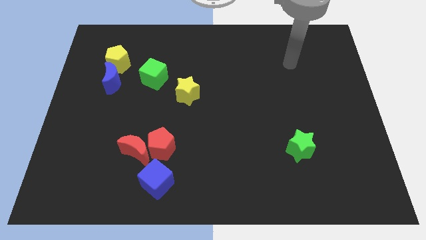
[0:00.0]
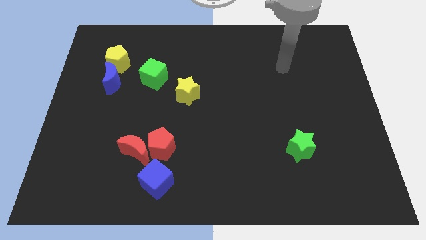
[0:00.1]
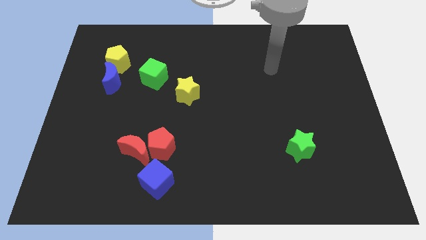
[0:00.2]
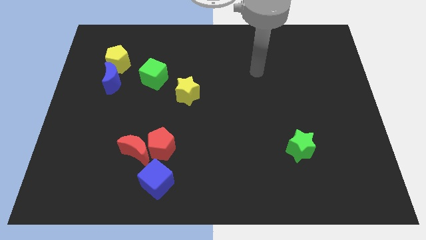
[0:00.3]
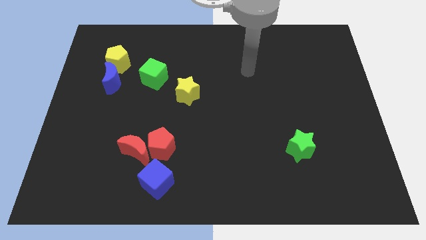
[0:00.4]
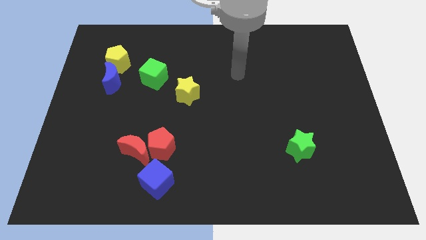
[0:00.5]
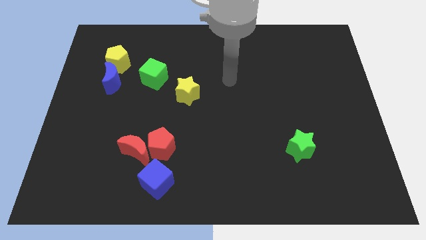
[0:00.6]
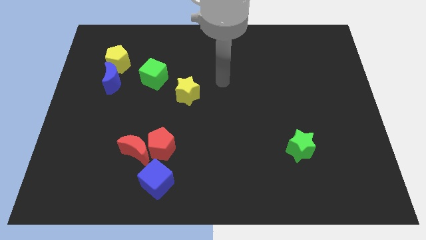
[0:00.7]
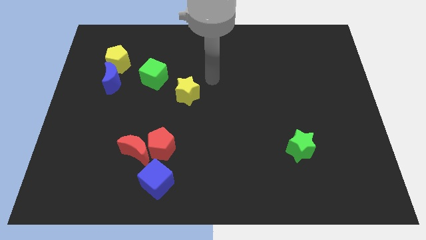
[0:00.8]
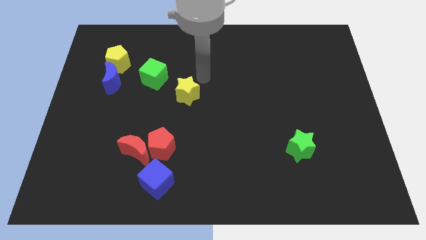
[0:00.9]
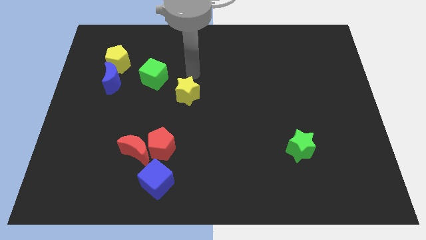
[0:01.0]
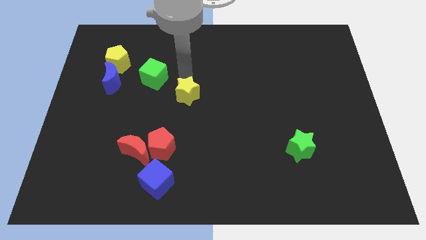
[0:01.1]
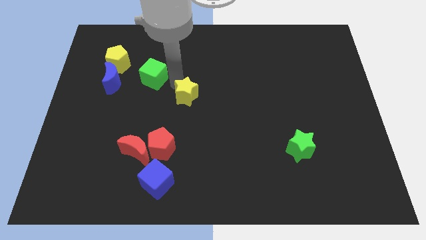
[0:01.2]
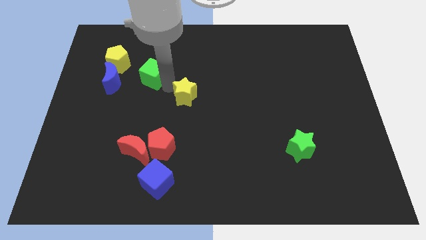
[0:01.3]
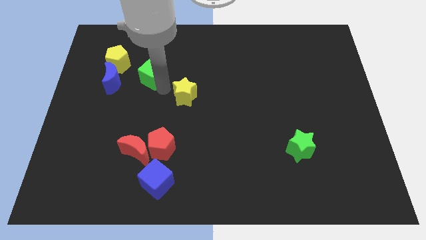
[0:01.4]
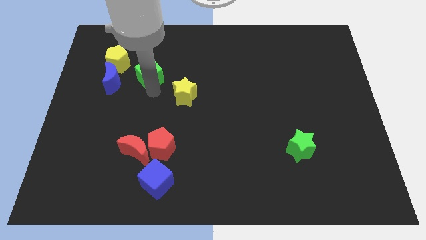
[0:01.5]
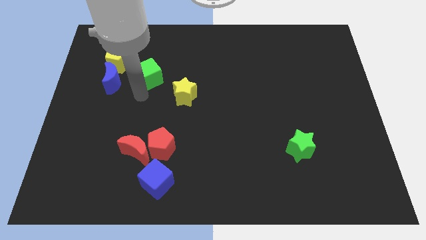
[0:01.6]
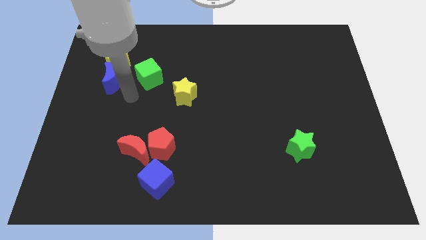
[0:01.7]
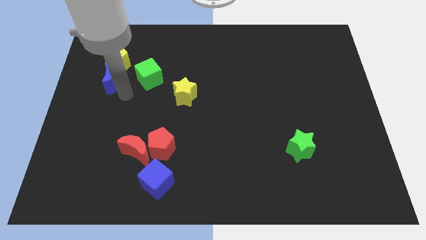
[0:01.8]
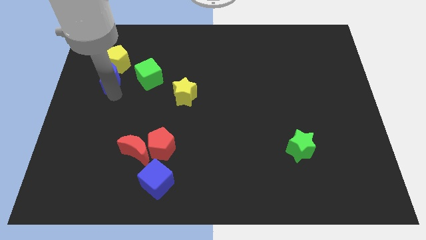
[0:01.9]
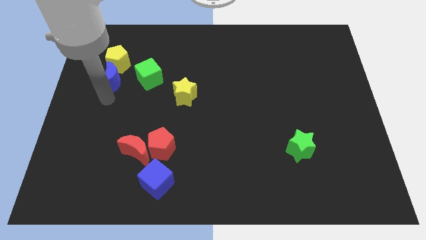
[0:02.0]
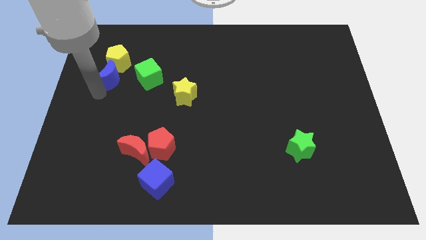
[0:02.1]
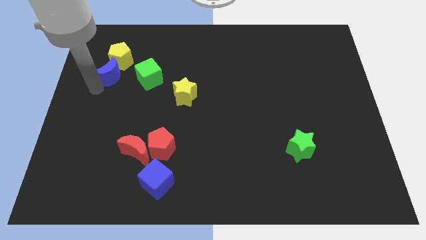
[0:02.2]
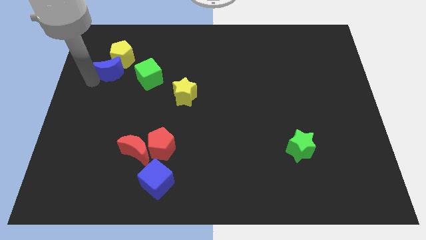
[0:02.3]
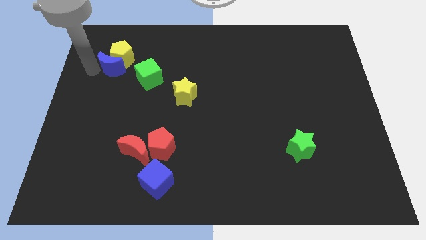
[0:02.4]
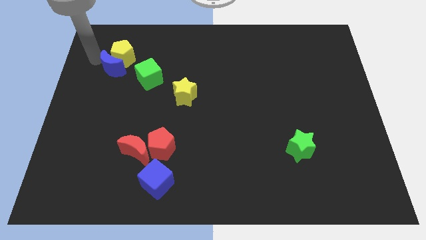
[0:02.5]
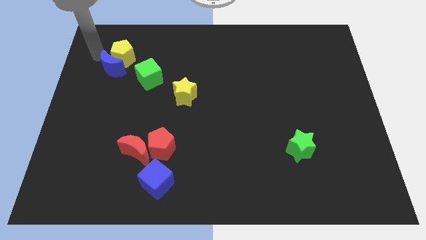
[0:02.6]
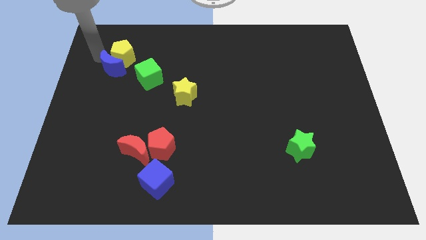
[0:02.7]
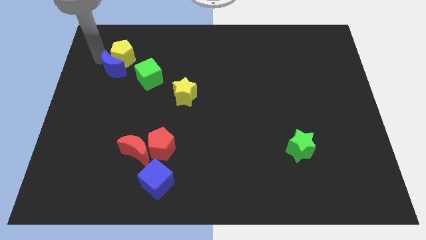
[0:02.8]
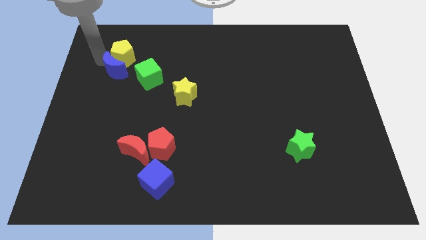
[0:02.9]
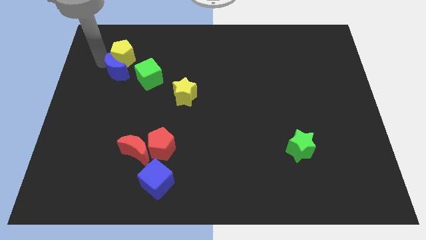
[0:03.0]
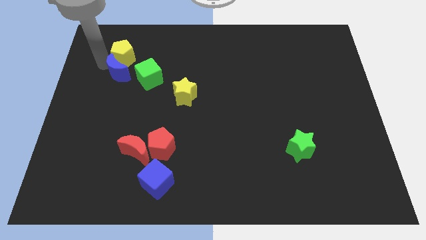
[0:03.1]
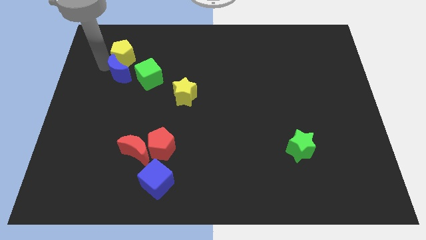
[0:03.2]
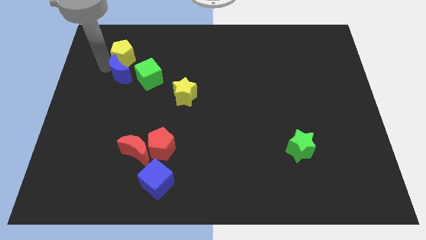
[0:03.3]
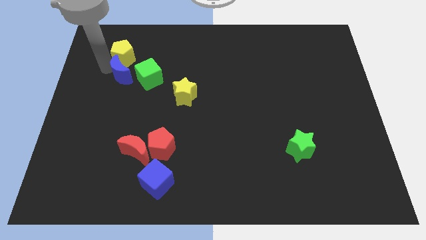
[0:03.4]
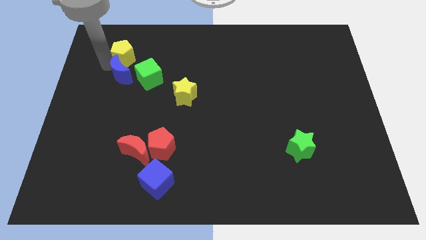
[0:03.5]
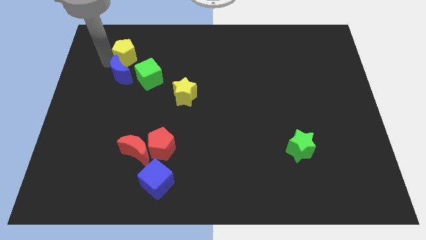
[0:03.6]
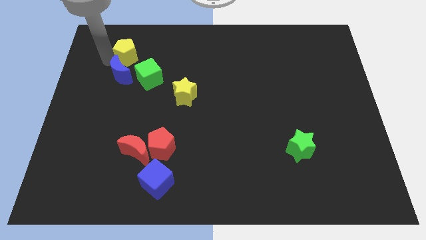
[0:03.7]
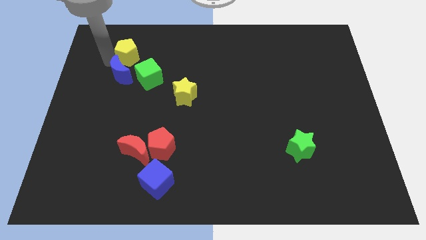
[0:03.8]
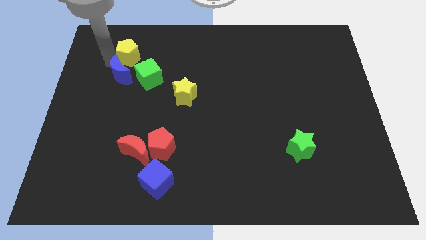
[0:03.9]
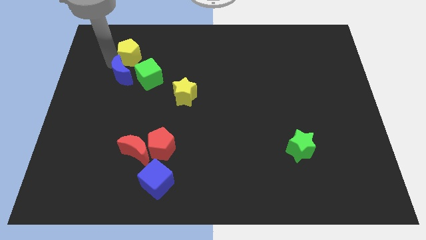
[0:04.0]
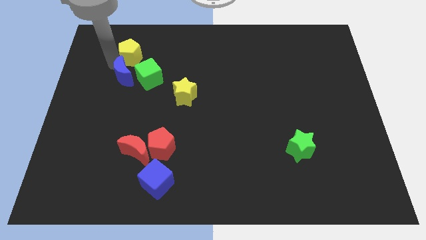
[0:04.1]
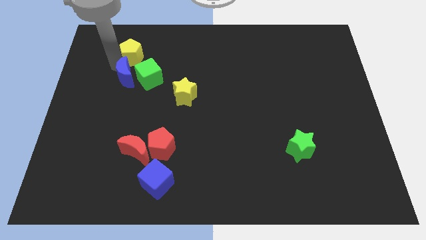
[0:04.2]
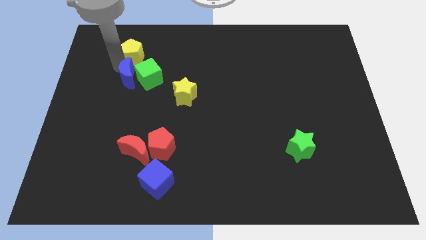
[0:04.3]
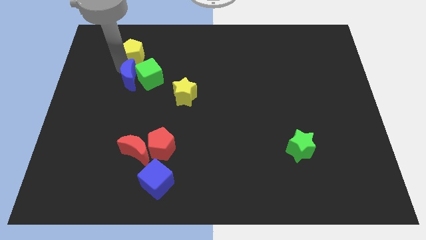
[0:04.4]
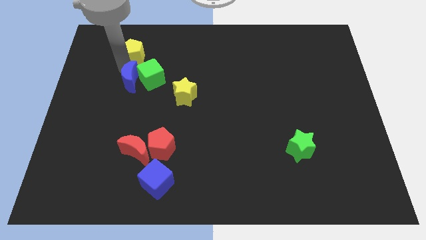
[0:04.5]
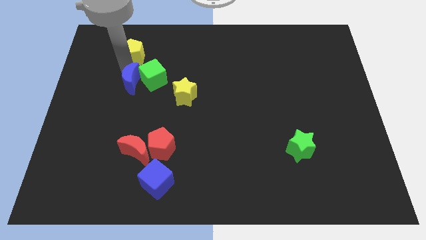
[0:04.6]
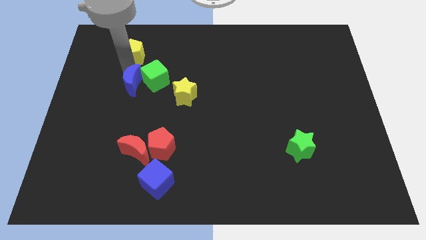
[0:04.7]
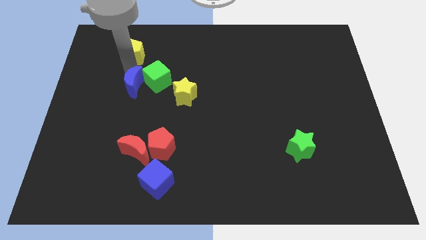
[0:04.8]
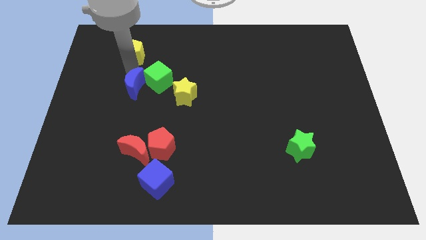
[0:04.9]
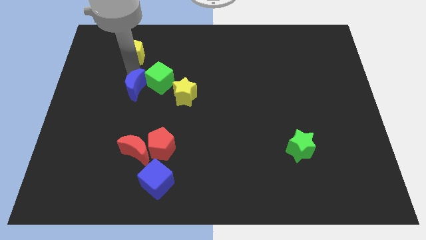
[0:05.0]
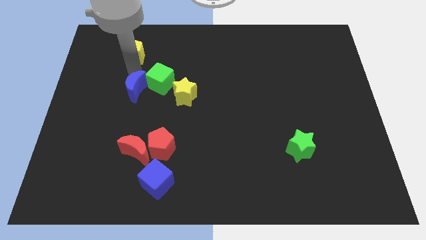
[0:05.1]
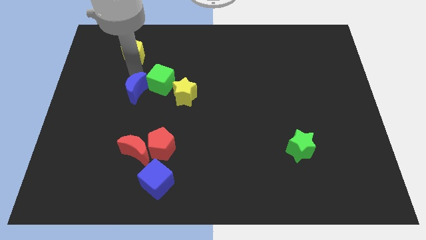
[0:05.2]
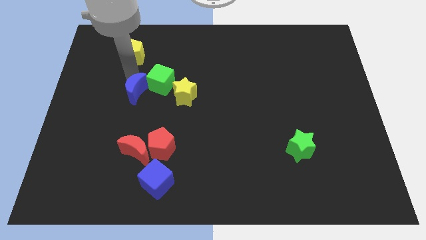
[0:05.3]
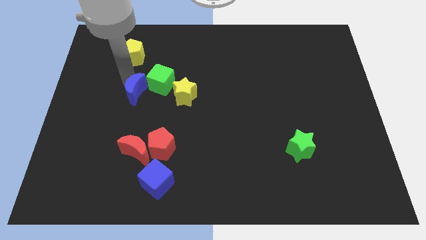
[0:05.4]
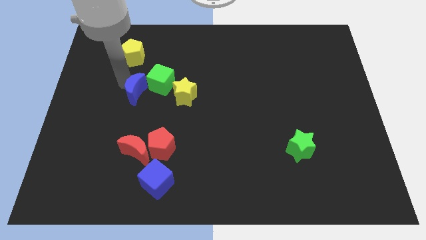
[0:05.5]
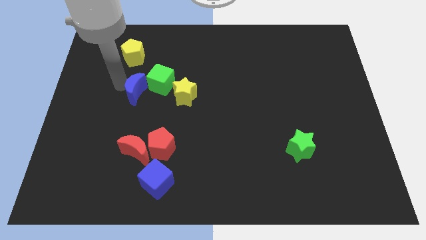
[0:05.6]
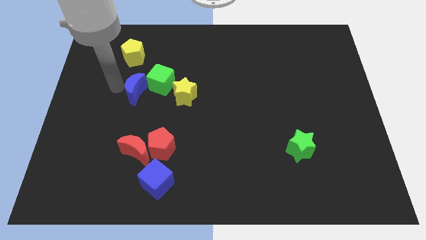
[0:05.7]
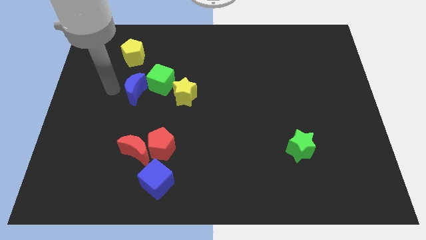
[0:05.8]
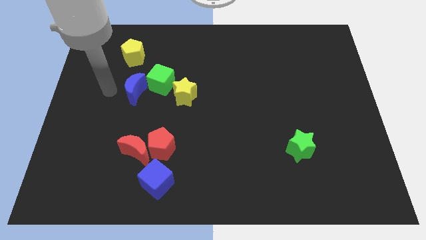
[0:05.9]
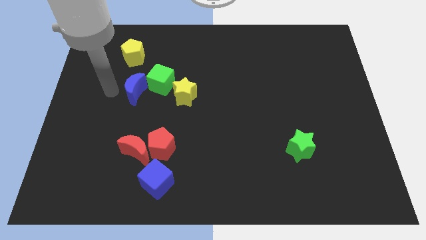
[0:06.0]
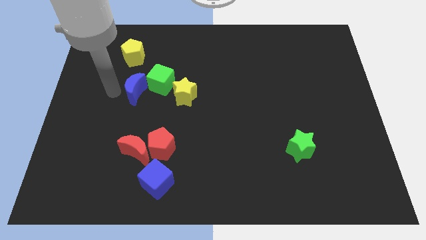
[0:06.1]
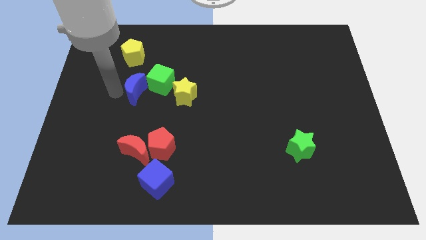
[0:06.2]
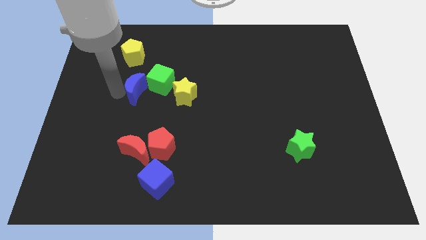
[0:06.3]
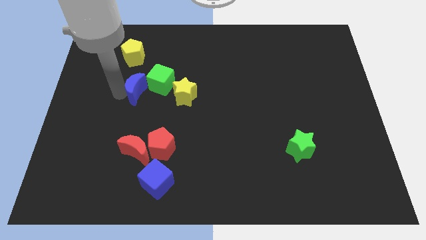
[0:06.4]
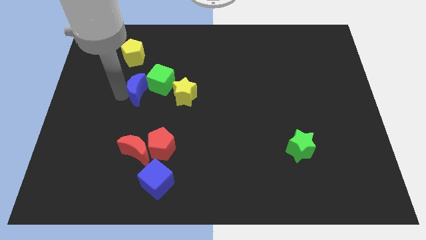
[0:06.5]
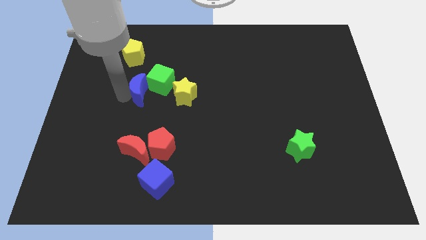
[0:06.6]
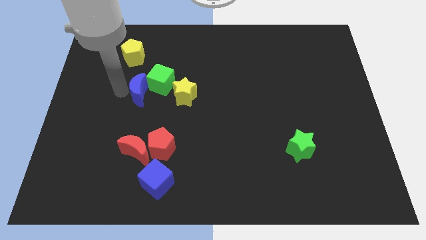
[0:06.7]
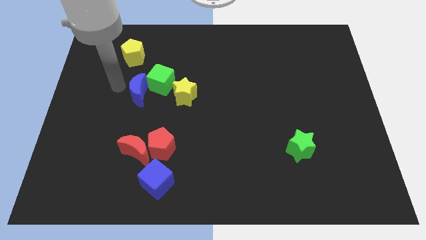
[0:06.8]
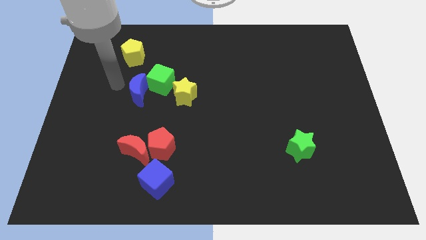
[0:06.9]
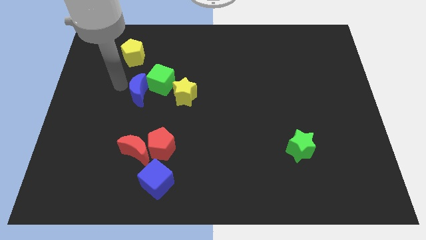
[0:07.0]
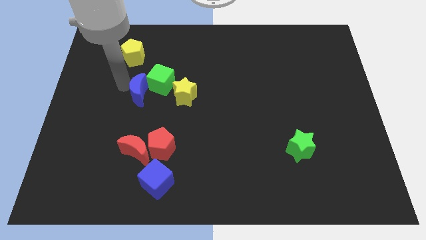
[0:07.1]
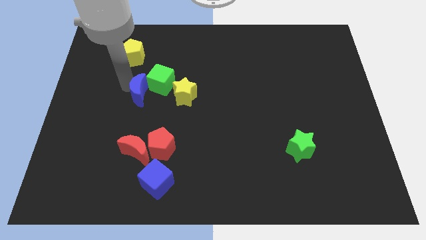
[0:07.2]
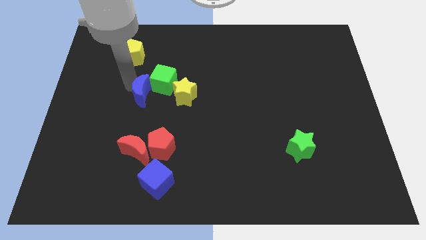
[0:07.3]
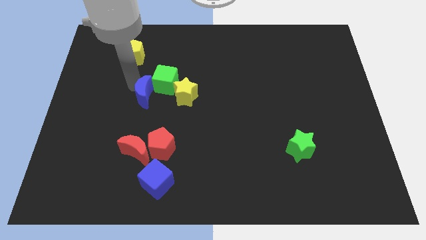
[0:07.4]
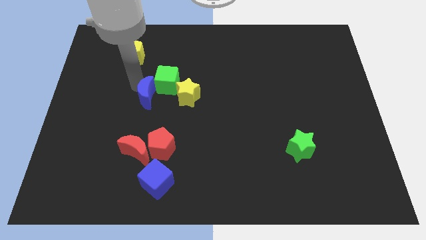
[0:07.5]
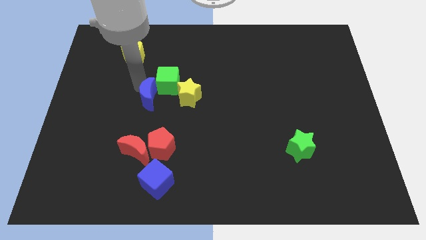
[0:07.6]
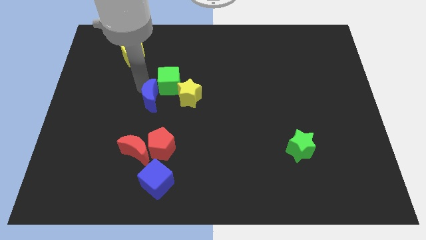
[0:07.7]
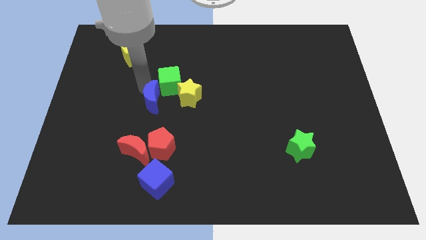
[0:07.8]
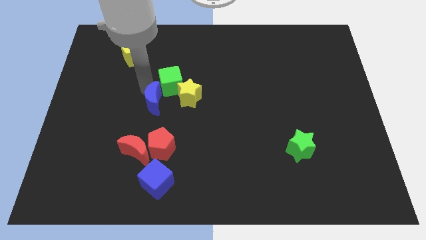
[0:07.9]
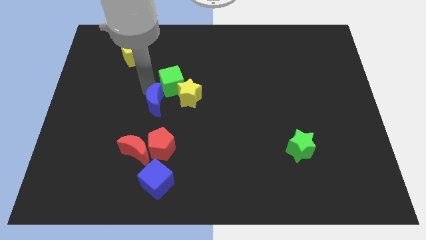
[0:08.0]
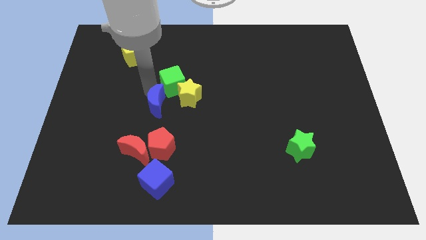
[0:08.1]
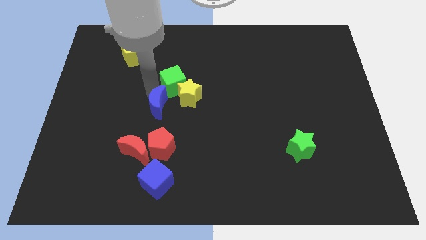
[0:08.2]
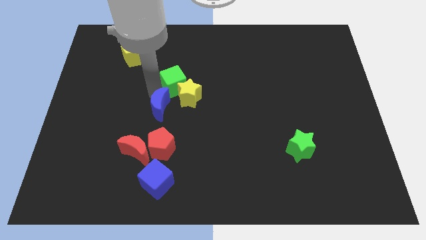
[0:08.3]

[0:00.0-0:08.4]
slide the blue moon to the middle
